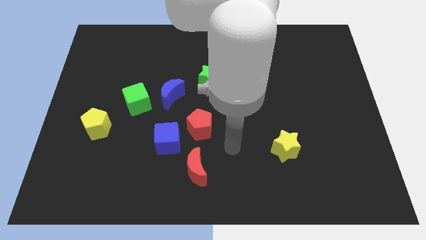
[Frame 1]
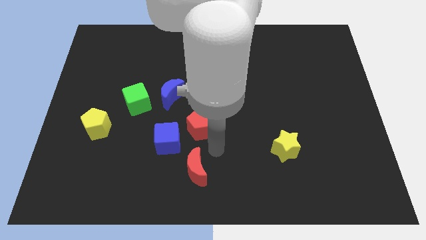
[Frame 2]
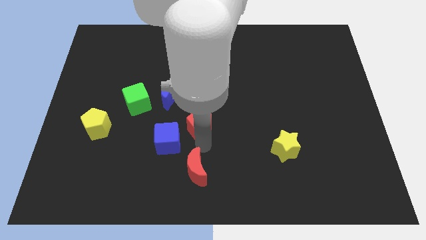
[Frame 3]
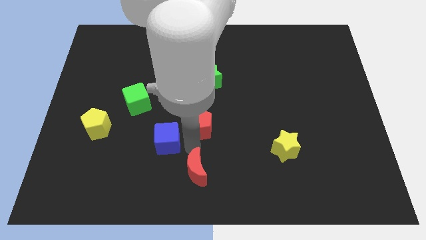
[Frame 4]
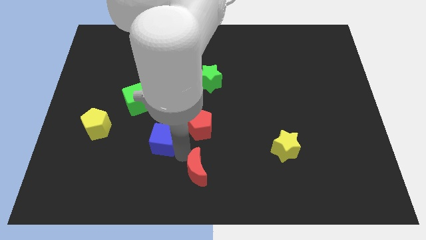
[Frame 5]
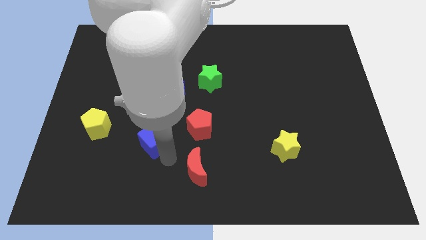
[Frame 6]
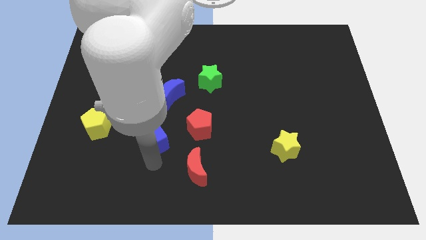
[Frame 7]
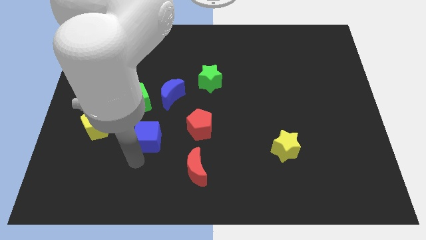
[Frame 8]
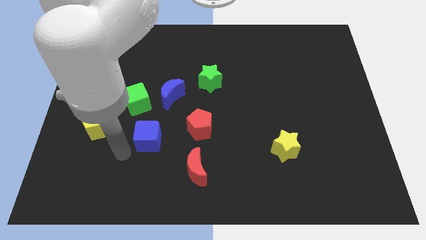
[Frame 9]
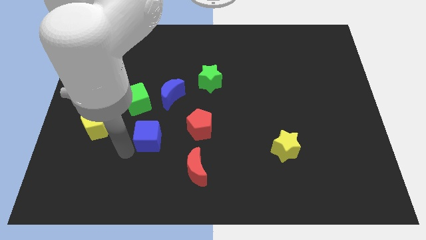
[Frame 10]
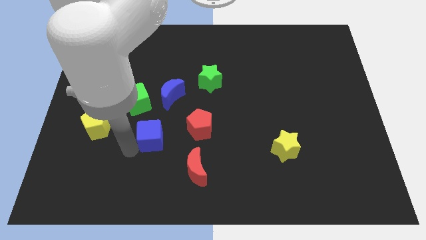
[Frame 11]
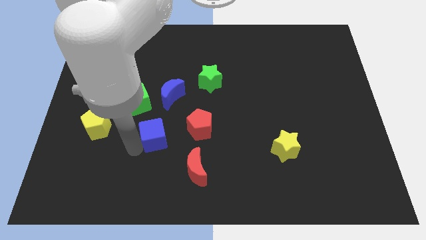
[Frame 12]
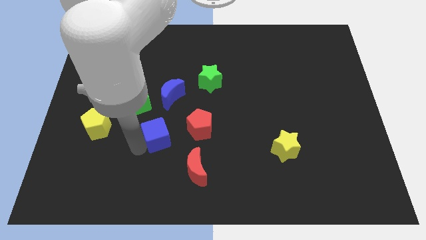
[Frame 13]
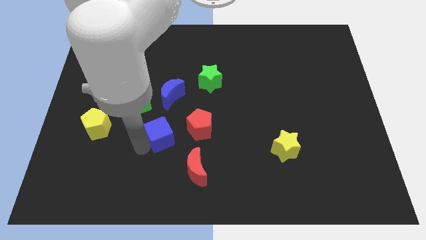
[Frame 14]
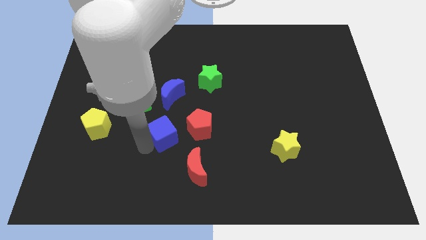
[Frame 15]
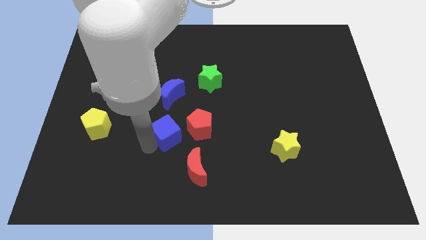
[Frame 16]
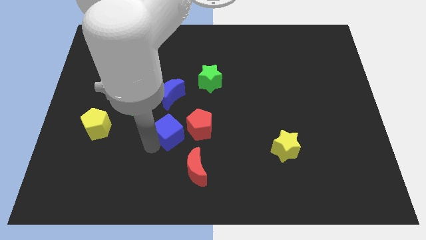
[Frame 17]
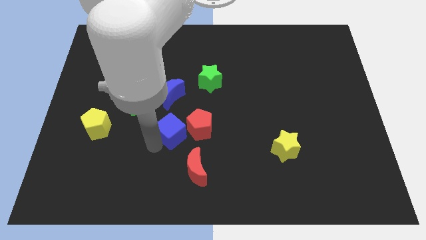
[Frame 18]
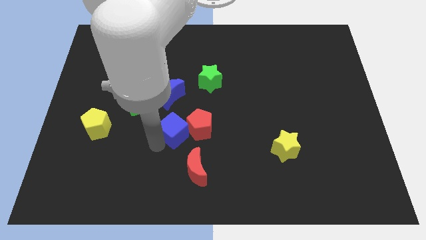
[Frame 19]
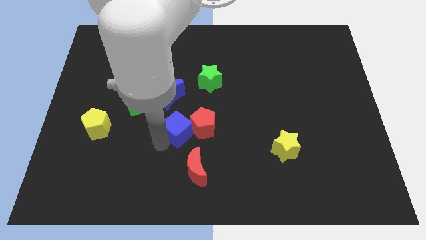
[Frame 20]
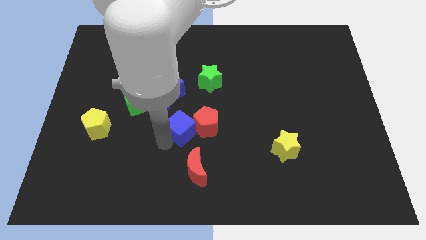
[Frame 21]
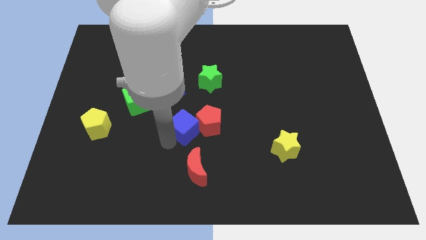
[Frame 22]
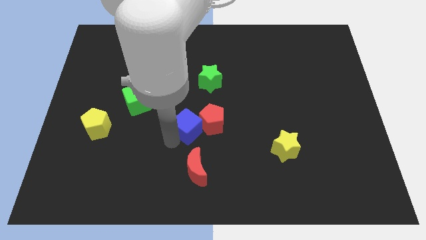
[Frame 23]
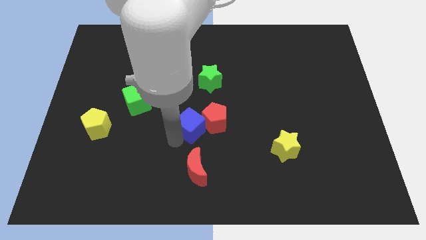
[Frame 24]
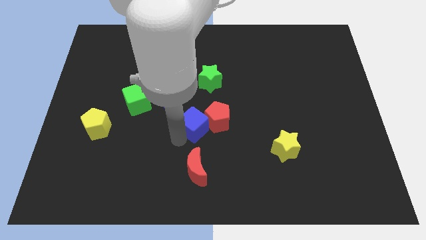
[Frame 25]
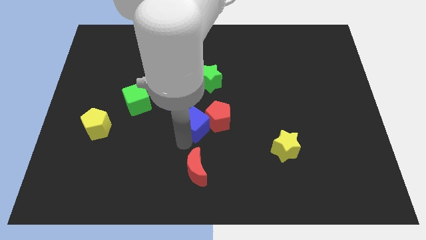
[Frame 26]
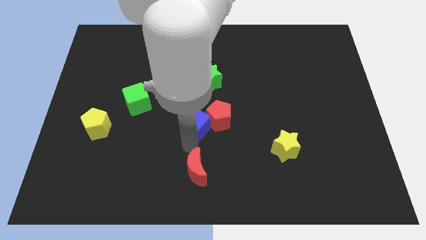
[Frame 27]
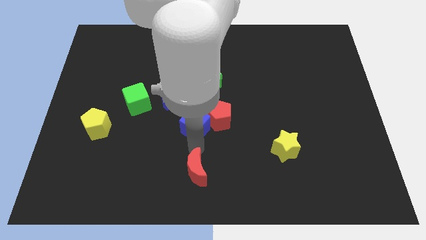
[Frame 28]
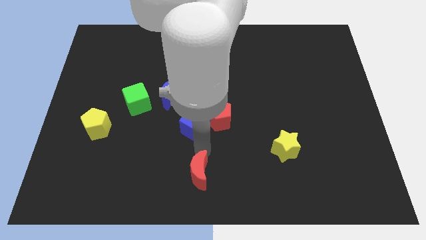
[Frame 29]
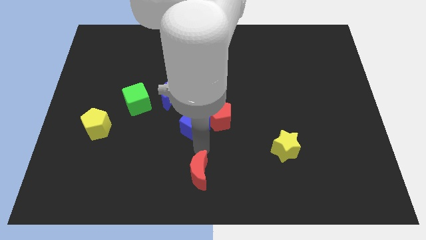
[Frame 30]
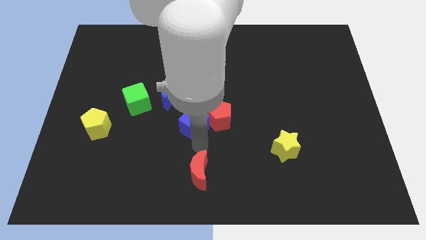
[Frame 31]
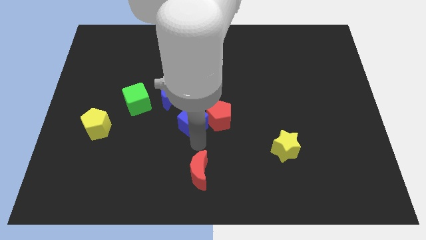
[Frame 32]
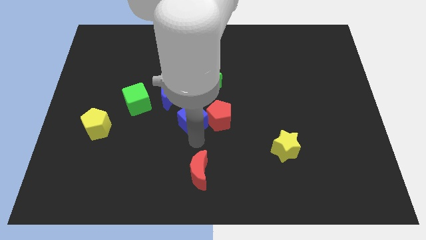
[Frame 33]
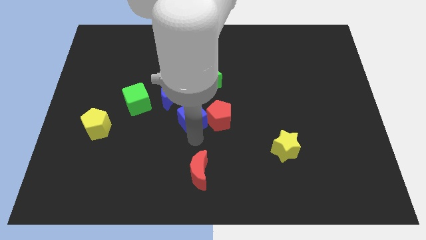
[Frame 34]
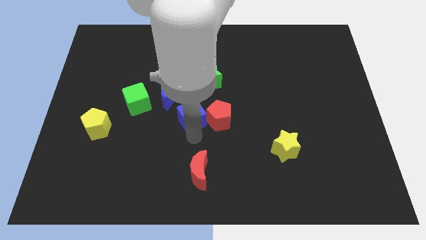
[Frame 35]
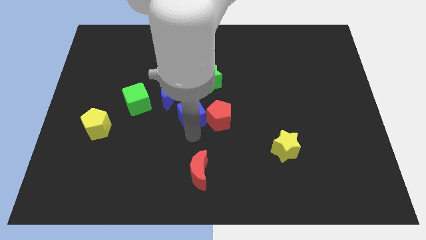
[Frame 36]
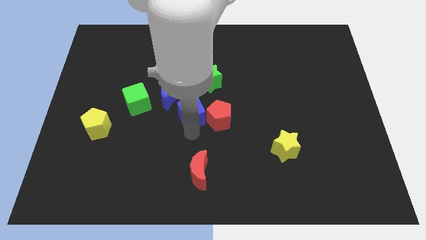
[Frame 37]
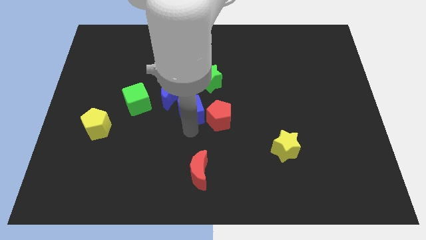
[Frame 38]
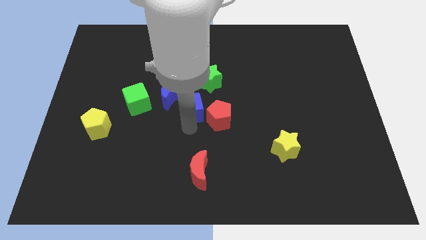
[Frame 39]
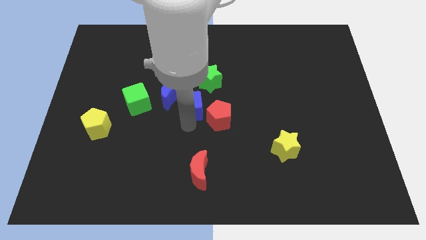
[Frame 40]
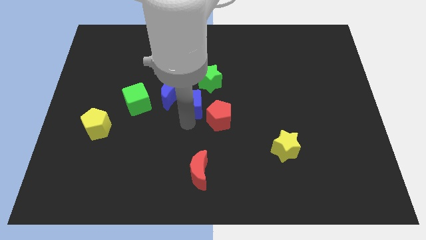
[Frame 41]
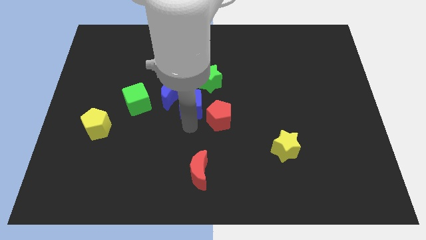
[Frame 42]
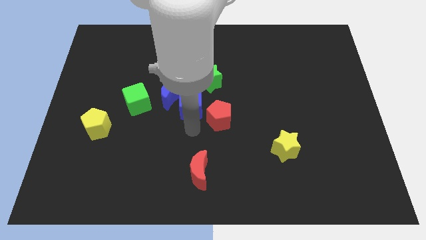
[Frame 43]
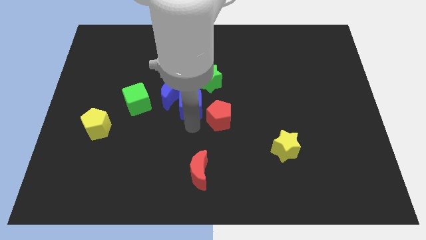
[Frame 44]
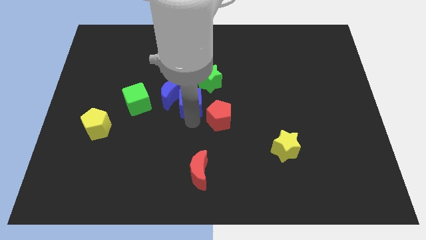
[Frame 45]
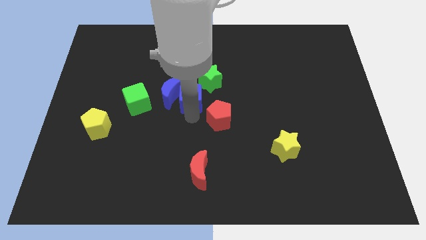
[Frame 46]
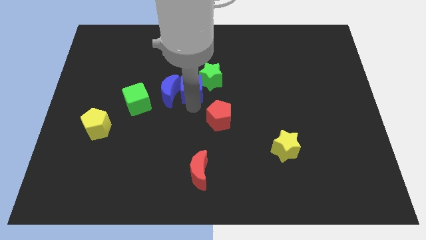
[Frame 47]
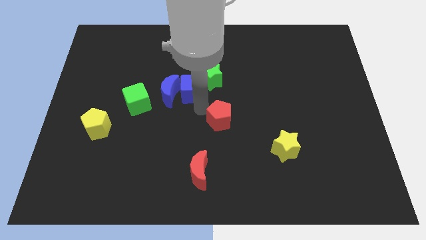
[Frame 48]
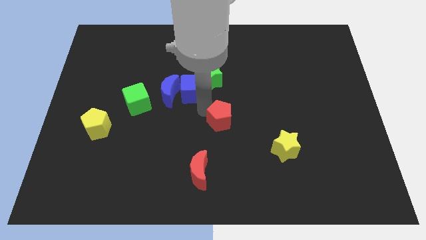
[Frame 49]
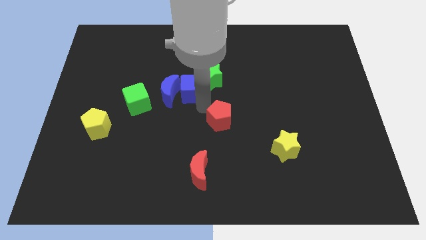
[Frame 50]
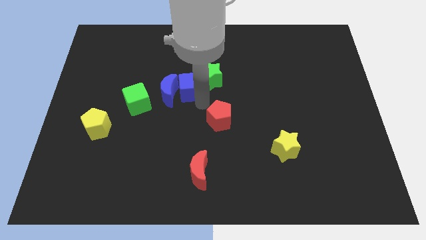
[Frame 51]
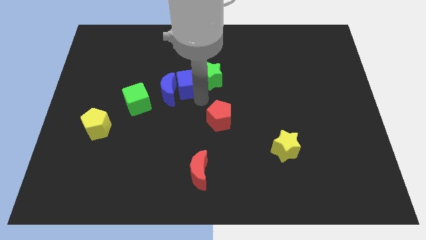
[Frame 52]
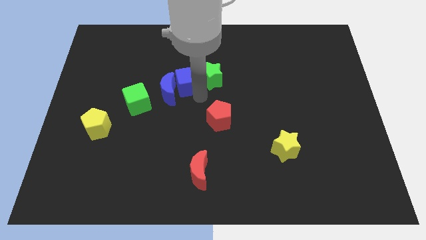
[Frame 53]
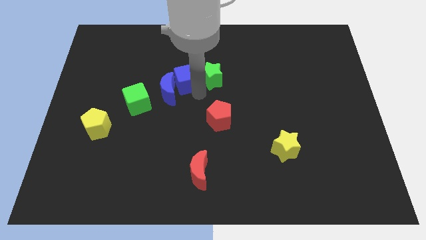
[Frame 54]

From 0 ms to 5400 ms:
move the blue cube to the top of the blue moon

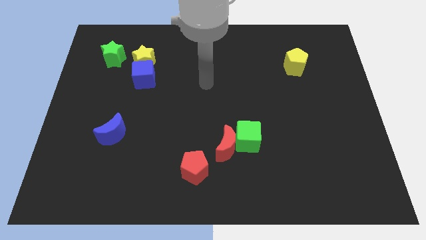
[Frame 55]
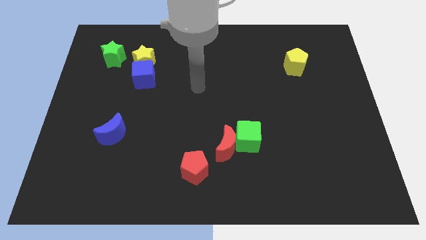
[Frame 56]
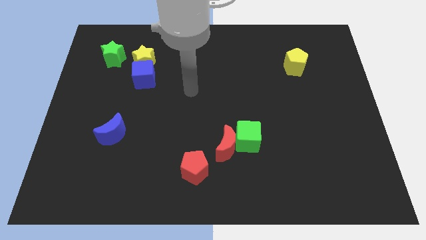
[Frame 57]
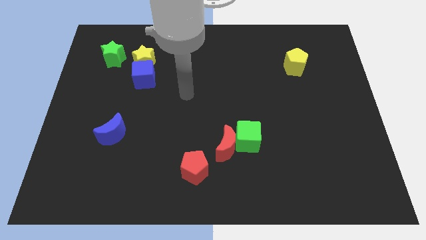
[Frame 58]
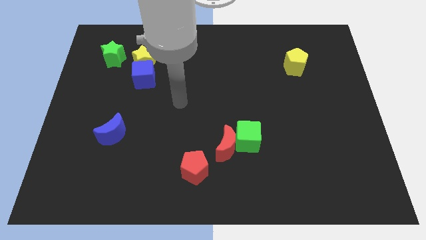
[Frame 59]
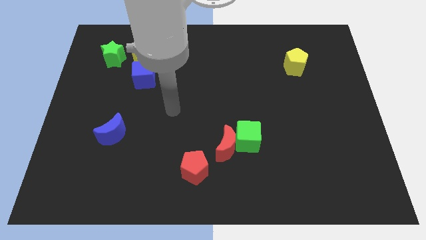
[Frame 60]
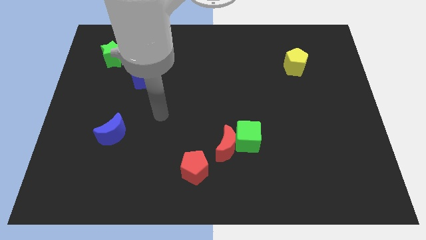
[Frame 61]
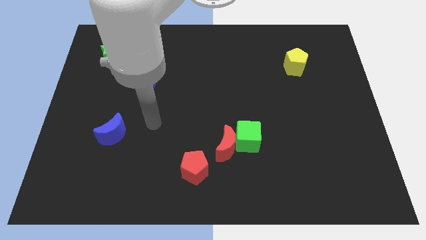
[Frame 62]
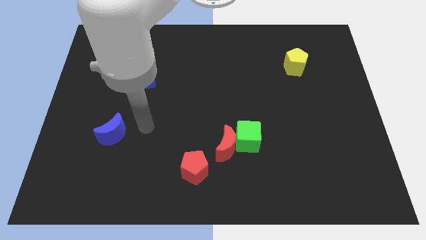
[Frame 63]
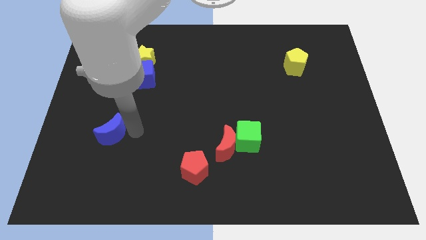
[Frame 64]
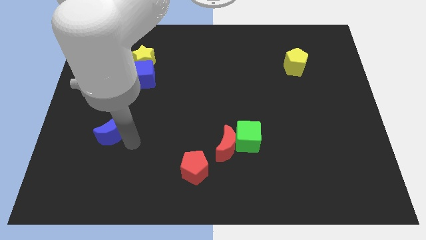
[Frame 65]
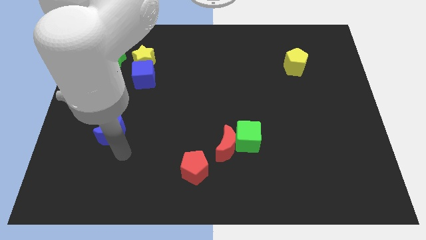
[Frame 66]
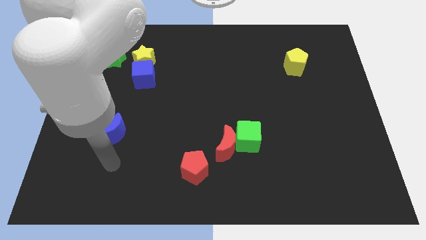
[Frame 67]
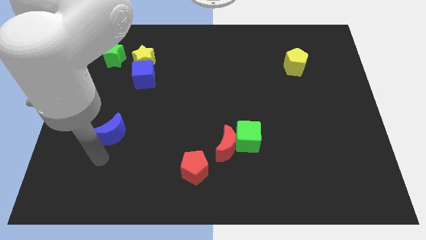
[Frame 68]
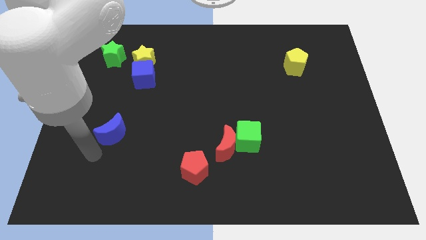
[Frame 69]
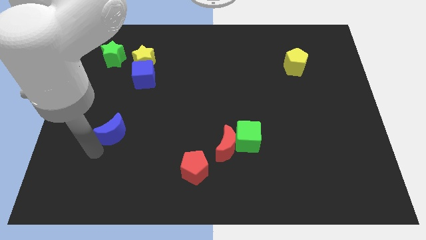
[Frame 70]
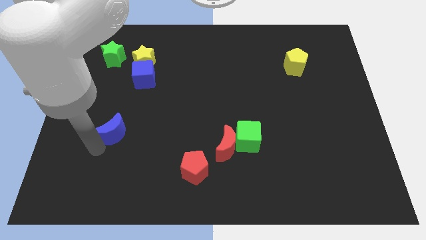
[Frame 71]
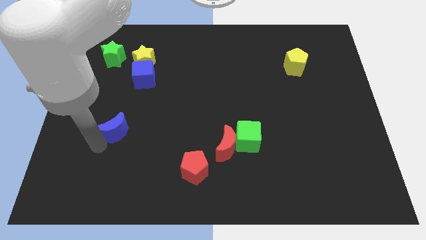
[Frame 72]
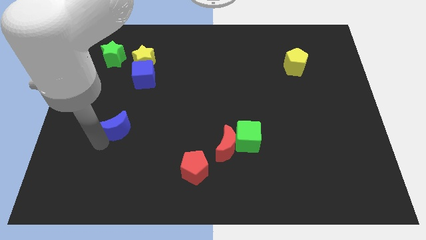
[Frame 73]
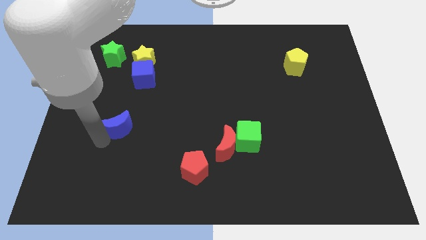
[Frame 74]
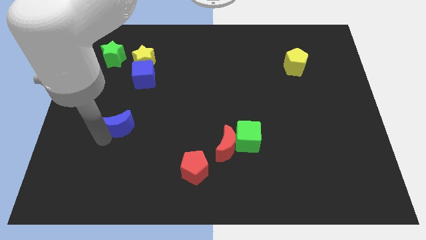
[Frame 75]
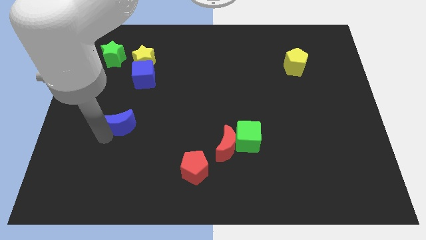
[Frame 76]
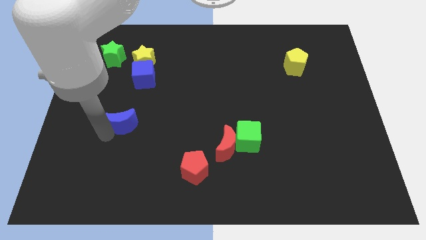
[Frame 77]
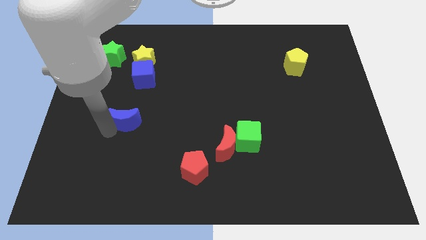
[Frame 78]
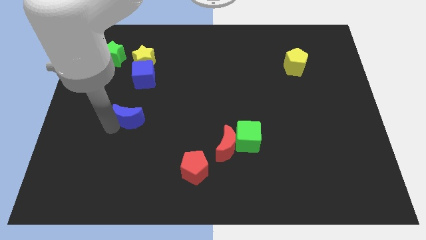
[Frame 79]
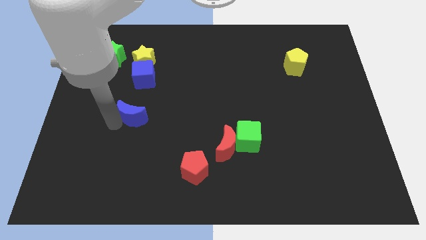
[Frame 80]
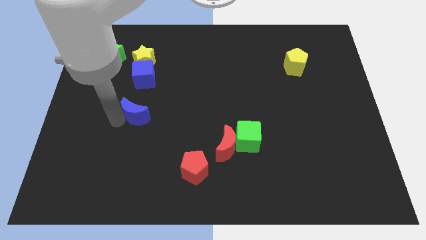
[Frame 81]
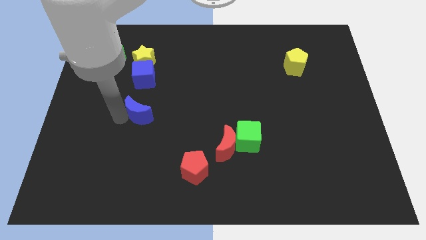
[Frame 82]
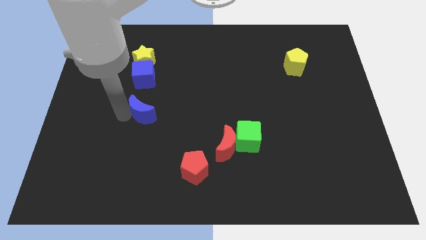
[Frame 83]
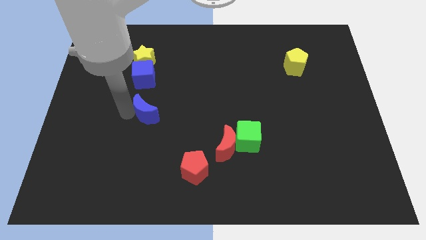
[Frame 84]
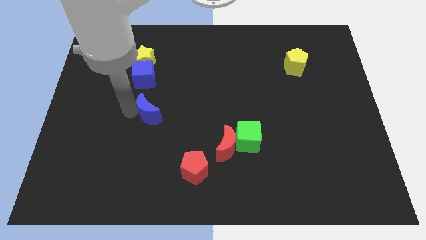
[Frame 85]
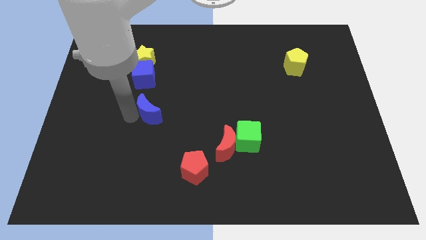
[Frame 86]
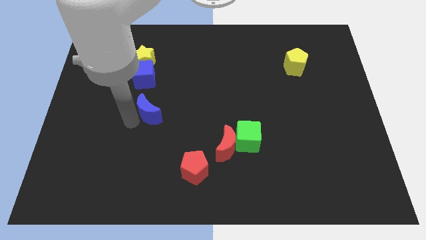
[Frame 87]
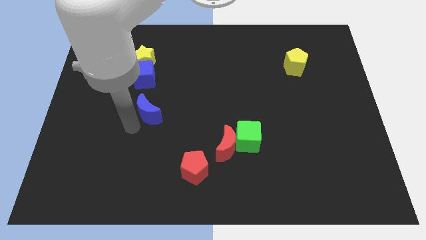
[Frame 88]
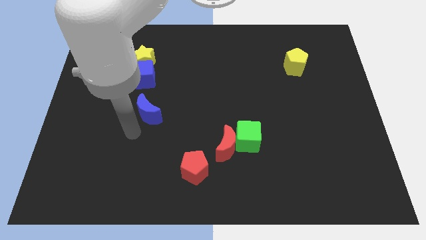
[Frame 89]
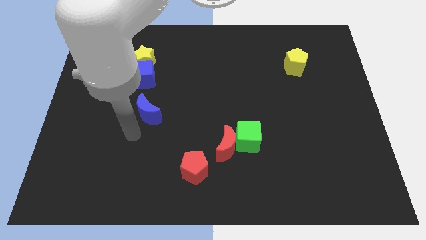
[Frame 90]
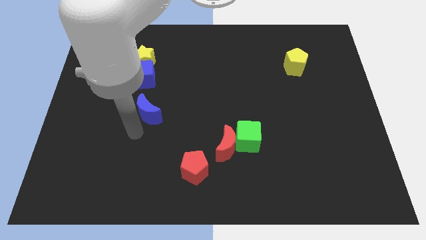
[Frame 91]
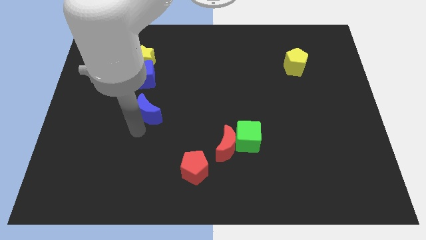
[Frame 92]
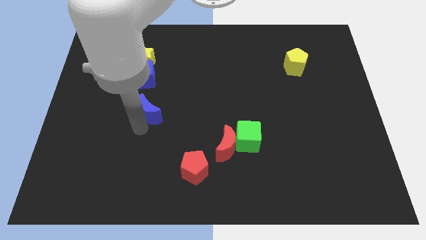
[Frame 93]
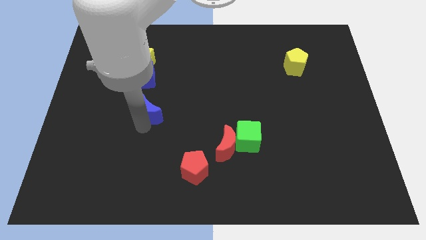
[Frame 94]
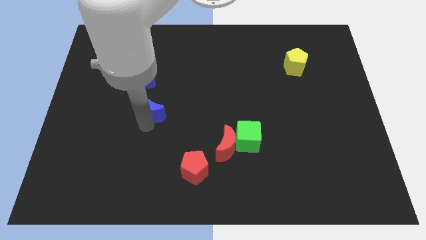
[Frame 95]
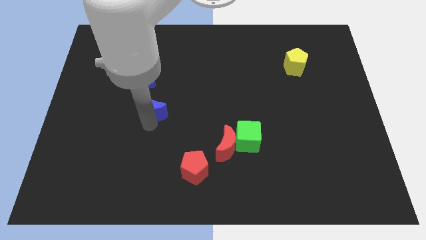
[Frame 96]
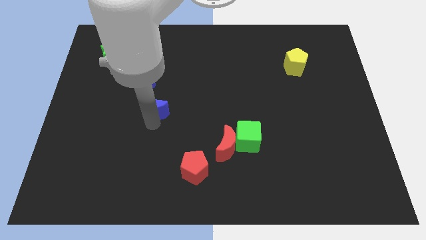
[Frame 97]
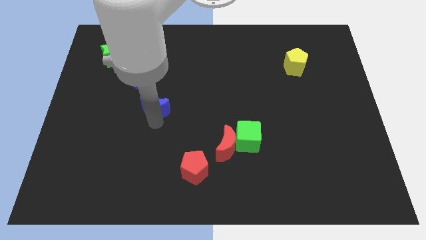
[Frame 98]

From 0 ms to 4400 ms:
move the blue moon diagonally down and to the right of the blue cube
